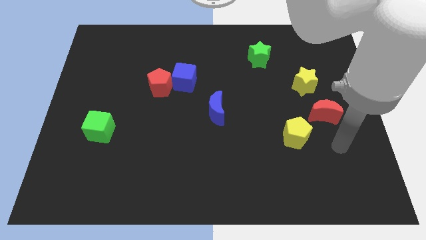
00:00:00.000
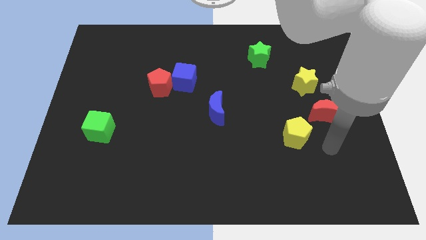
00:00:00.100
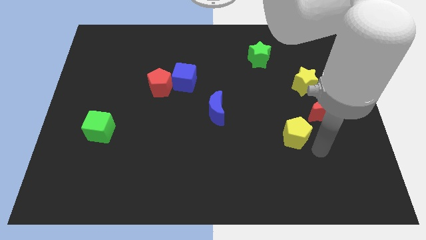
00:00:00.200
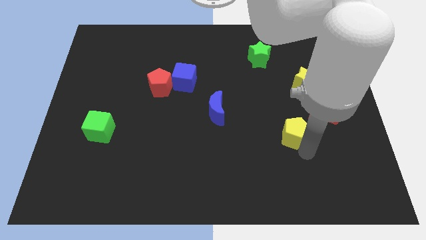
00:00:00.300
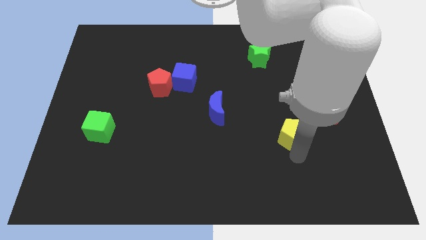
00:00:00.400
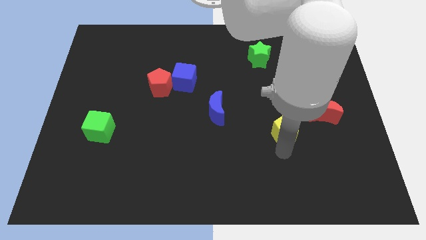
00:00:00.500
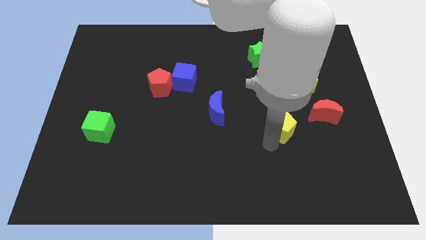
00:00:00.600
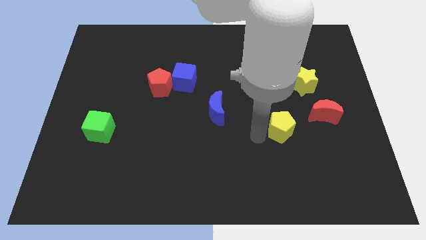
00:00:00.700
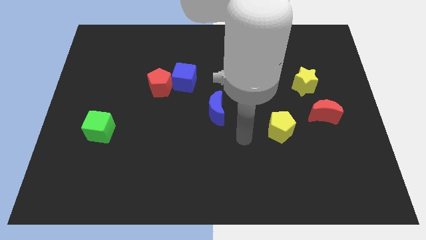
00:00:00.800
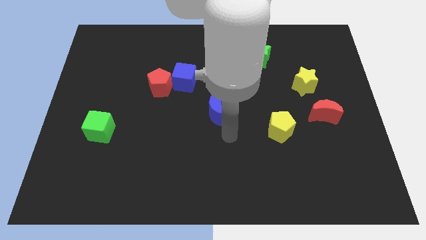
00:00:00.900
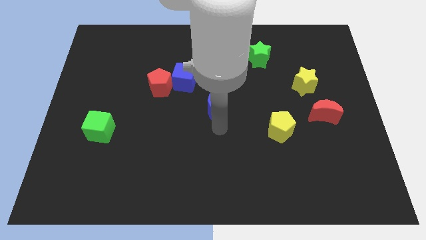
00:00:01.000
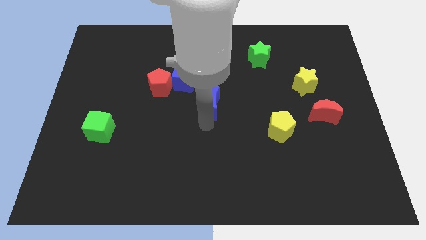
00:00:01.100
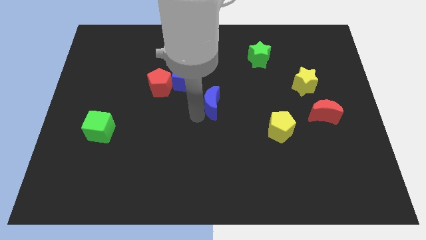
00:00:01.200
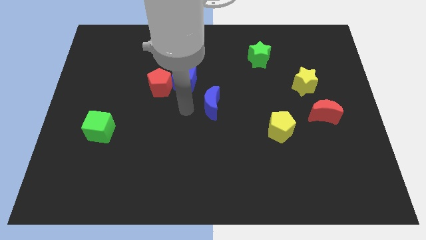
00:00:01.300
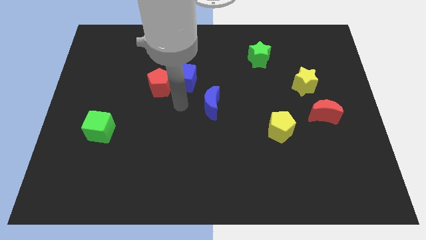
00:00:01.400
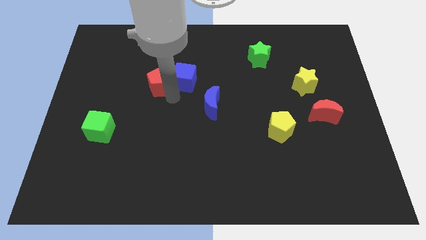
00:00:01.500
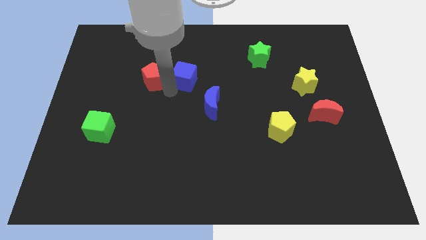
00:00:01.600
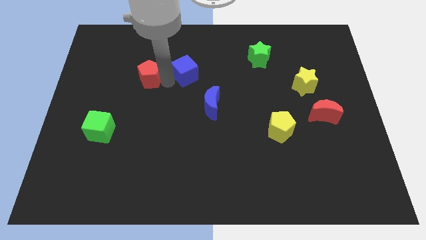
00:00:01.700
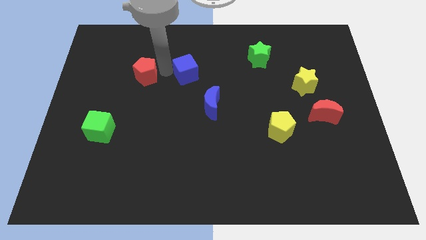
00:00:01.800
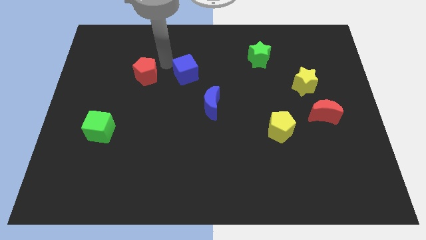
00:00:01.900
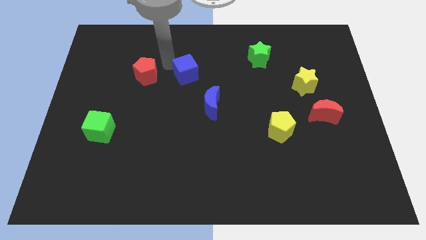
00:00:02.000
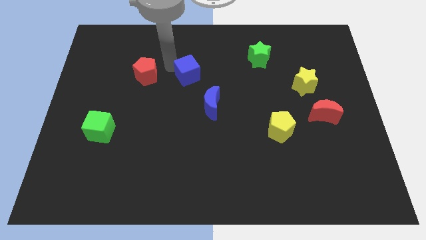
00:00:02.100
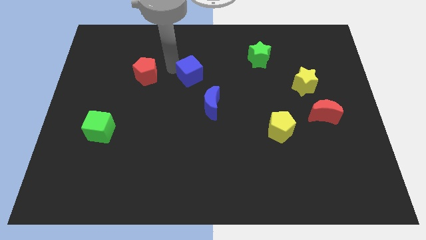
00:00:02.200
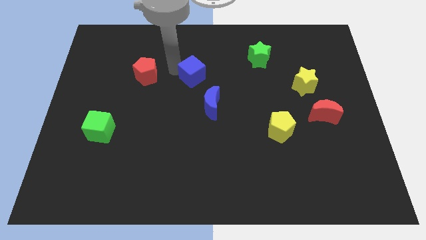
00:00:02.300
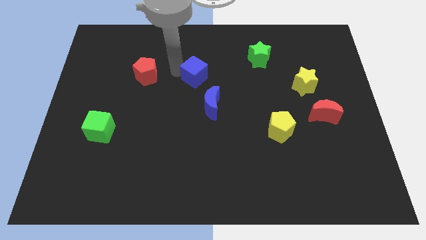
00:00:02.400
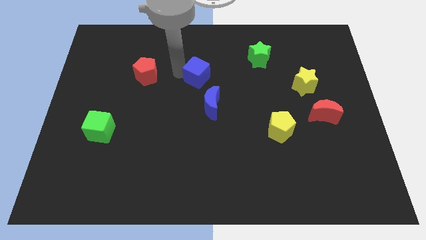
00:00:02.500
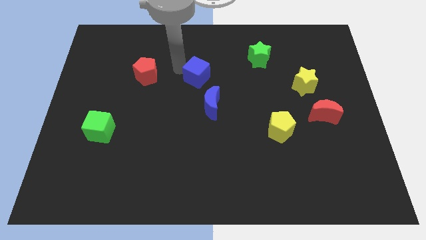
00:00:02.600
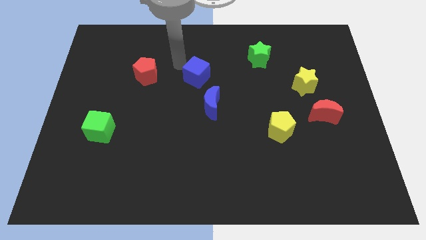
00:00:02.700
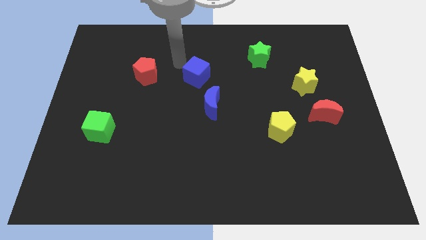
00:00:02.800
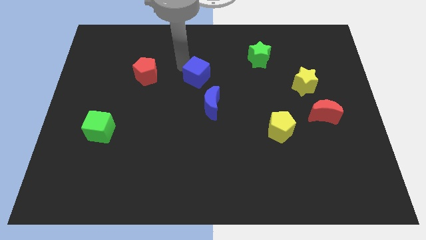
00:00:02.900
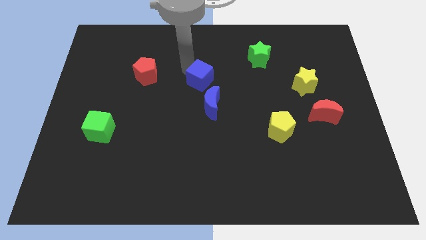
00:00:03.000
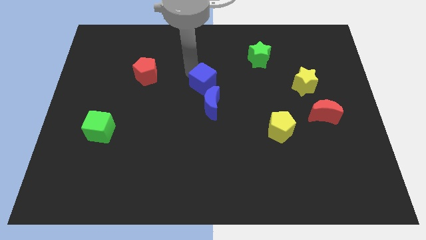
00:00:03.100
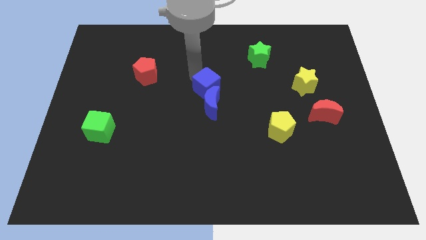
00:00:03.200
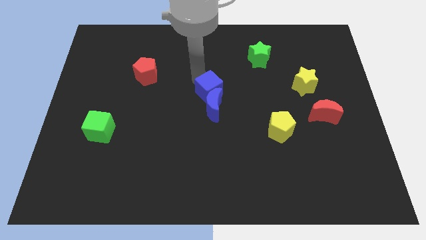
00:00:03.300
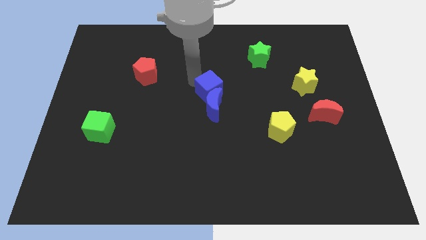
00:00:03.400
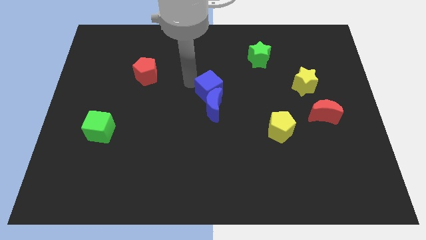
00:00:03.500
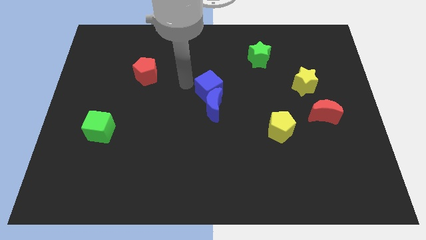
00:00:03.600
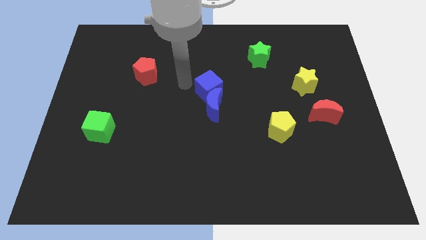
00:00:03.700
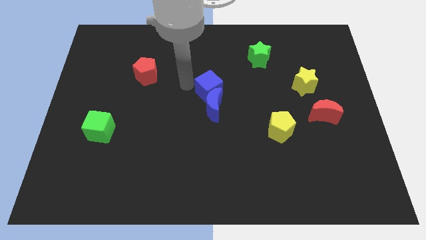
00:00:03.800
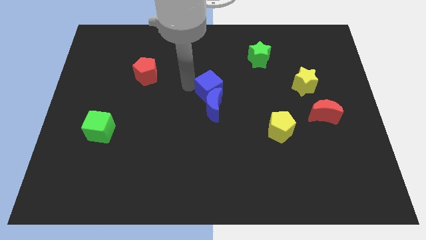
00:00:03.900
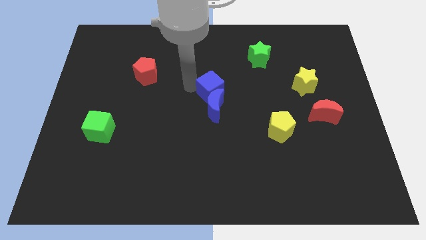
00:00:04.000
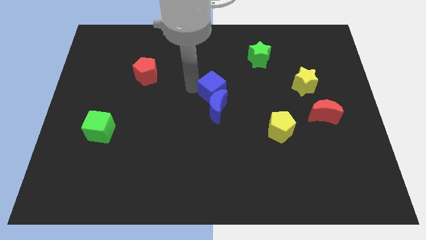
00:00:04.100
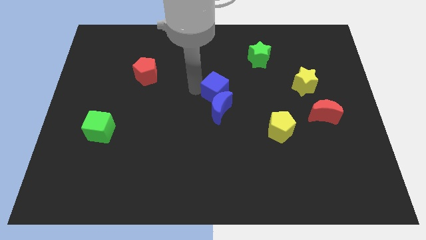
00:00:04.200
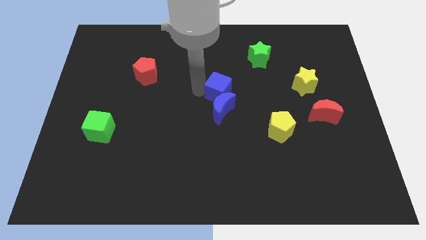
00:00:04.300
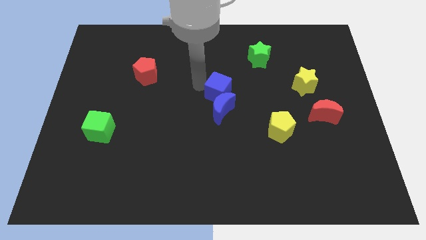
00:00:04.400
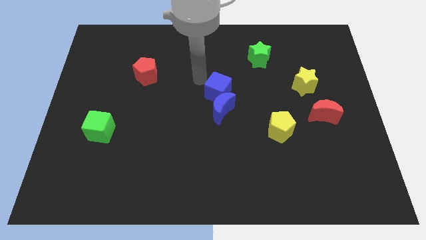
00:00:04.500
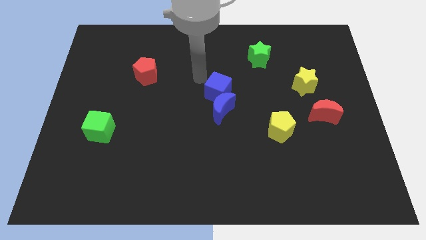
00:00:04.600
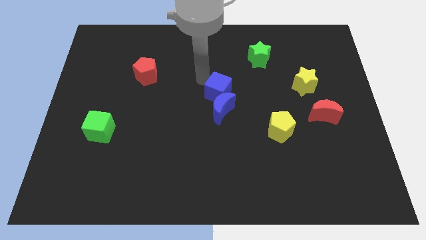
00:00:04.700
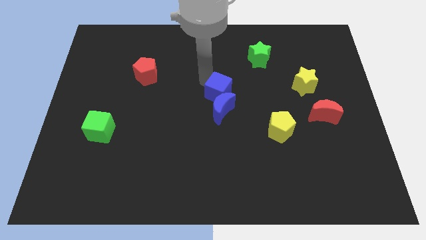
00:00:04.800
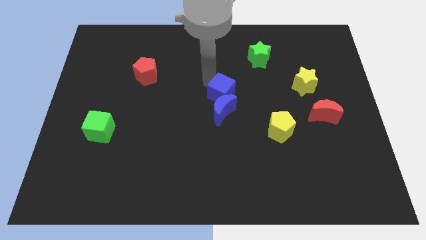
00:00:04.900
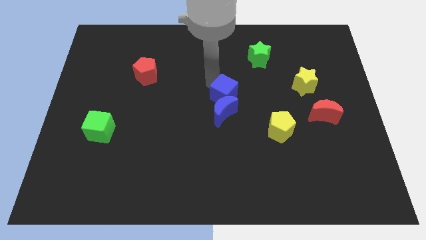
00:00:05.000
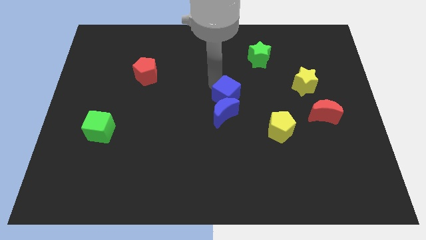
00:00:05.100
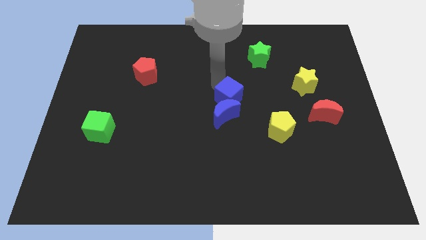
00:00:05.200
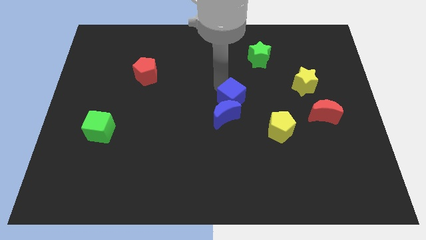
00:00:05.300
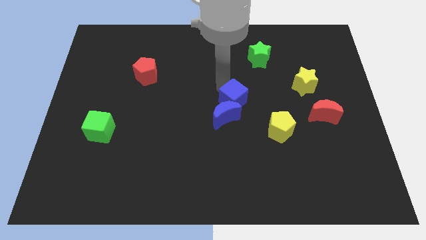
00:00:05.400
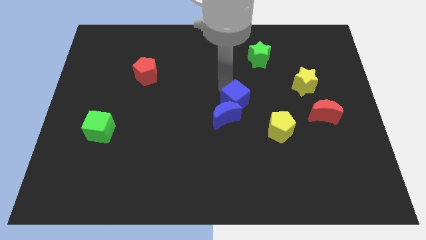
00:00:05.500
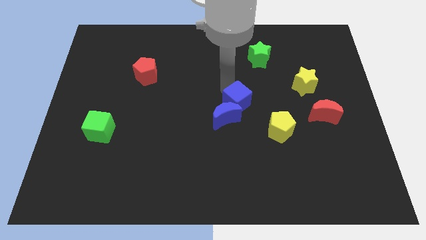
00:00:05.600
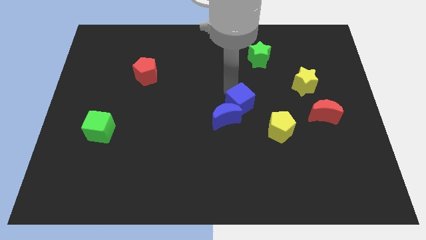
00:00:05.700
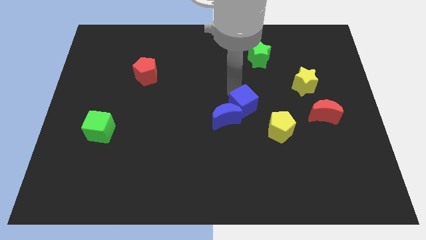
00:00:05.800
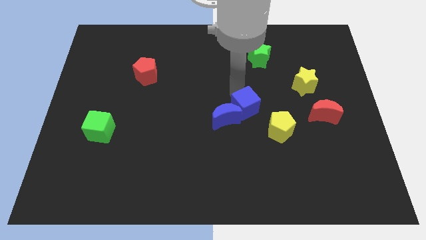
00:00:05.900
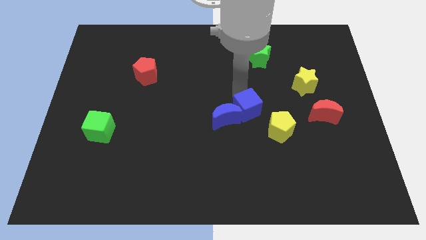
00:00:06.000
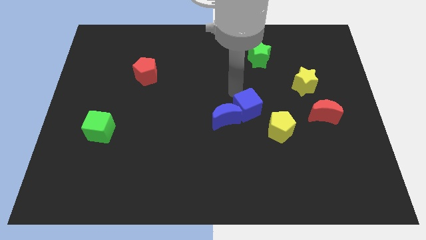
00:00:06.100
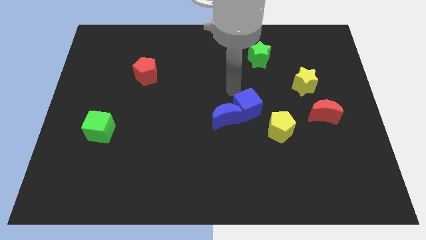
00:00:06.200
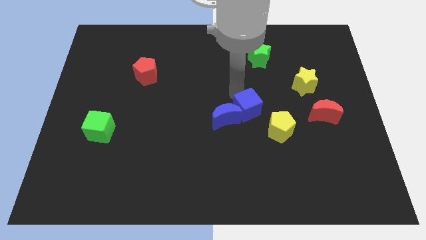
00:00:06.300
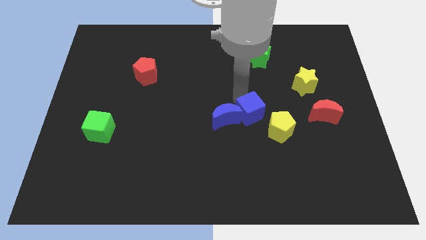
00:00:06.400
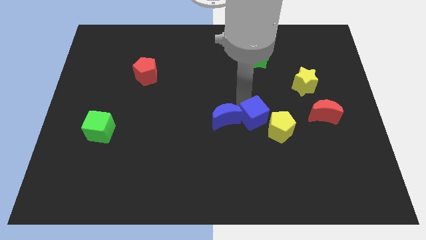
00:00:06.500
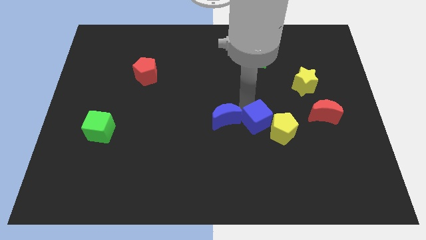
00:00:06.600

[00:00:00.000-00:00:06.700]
slide the blue cube diagonally down and right

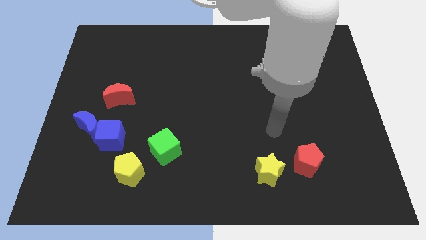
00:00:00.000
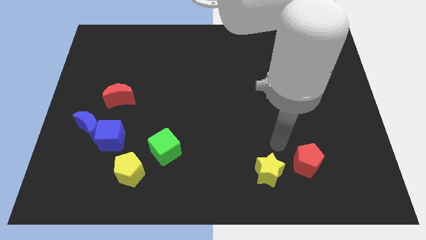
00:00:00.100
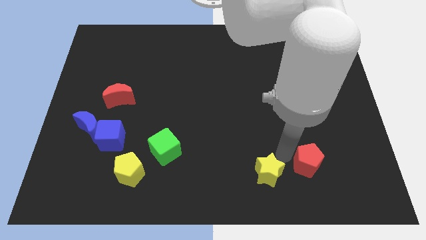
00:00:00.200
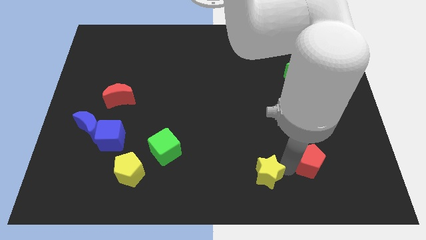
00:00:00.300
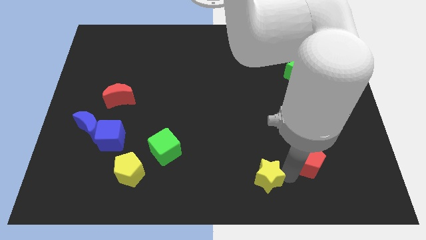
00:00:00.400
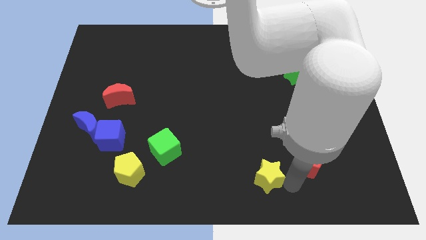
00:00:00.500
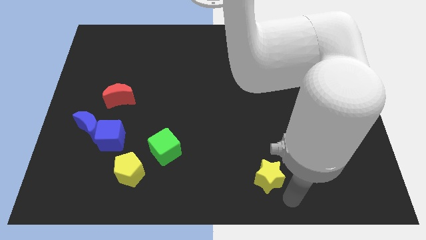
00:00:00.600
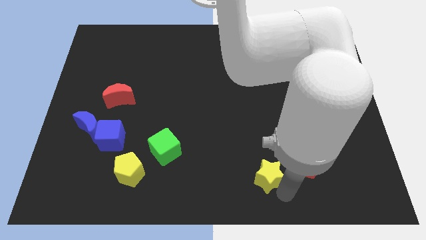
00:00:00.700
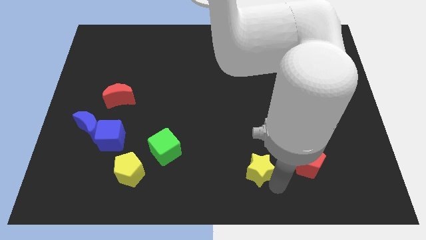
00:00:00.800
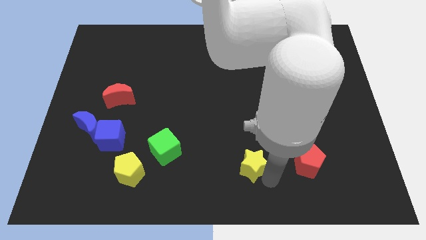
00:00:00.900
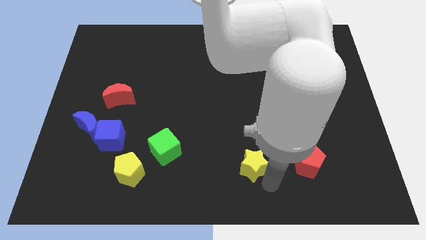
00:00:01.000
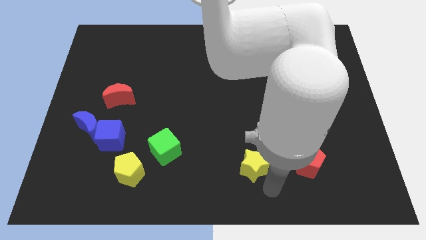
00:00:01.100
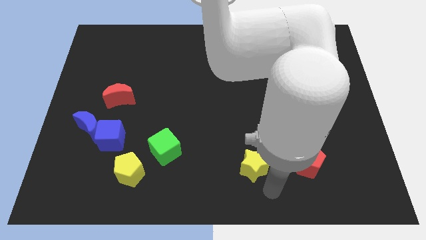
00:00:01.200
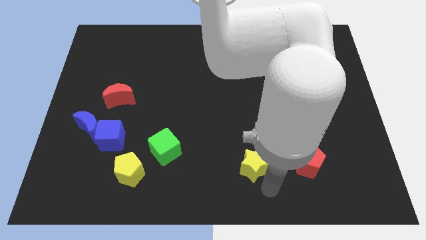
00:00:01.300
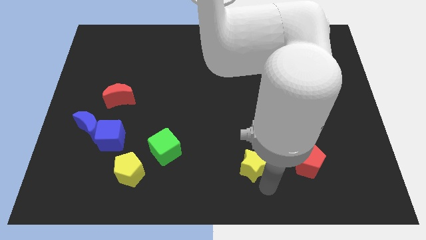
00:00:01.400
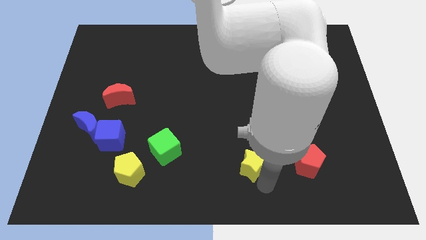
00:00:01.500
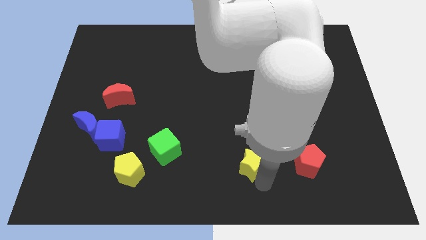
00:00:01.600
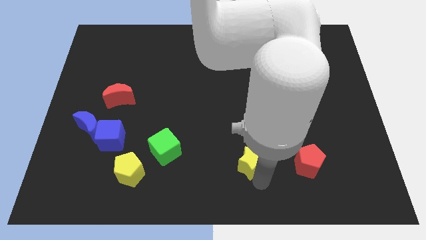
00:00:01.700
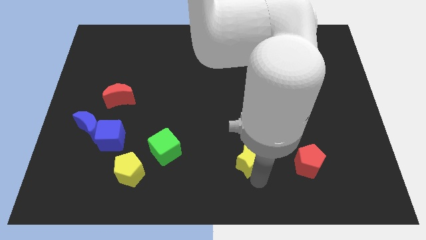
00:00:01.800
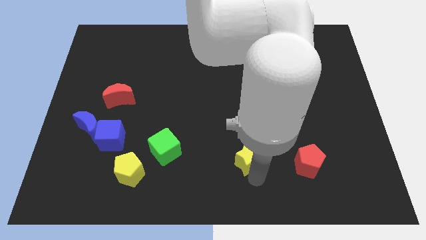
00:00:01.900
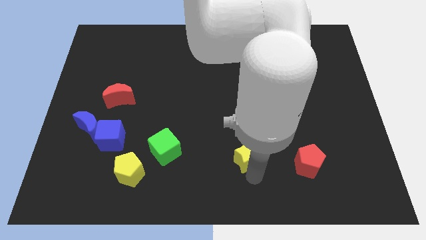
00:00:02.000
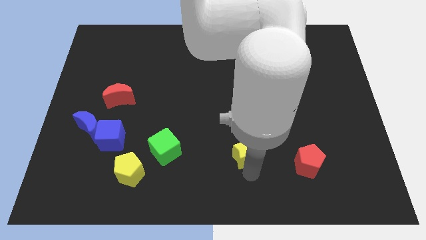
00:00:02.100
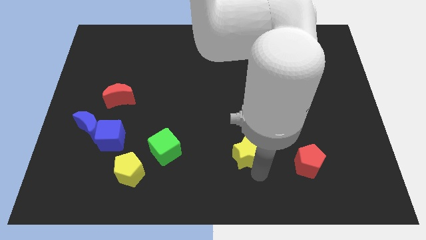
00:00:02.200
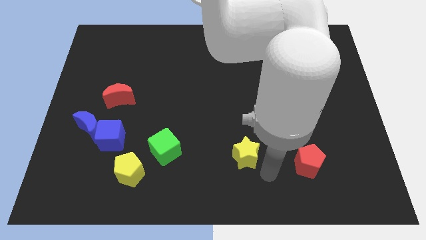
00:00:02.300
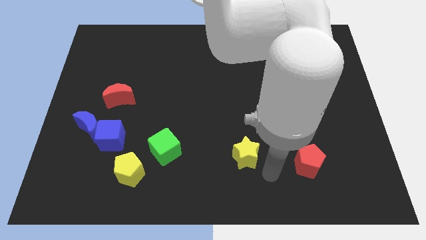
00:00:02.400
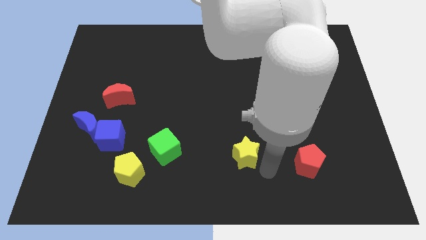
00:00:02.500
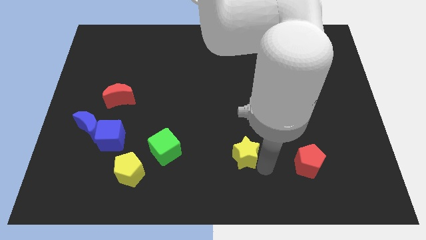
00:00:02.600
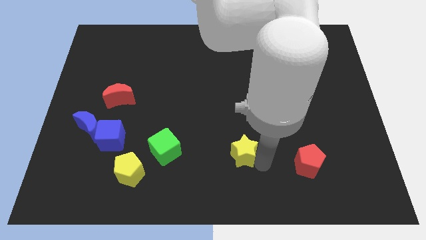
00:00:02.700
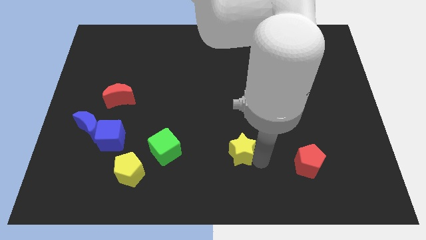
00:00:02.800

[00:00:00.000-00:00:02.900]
slightly slide the yellow star upwards and then to the left
